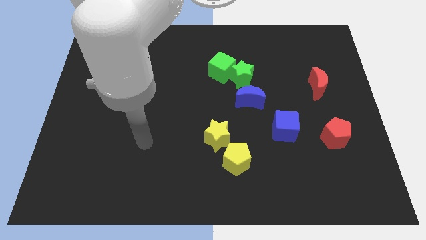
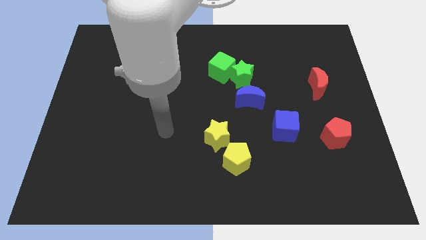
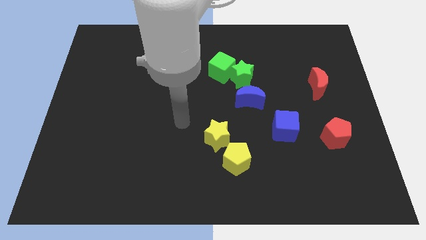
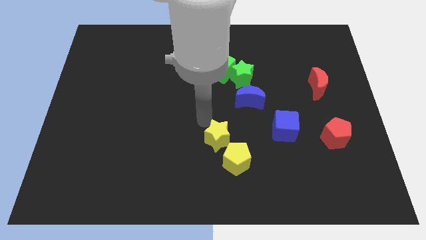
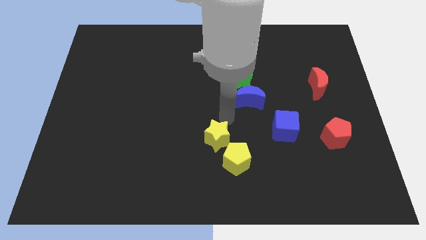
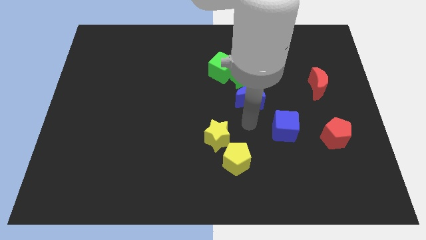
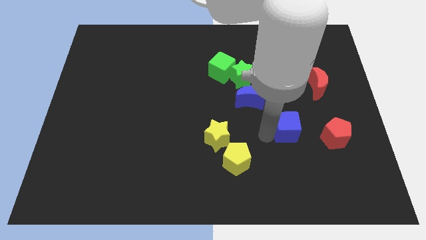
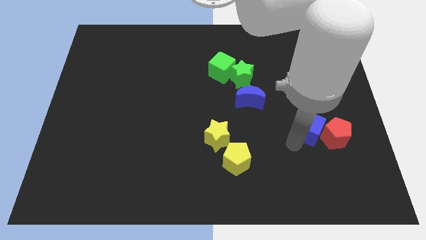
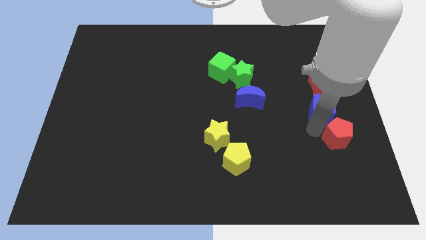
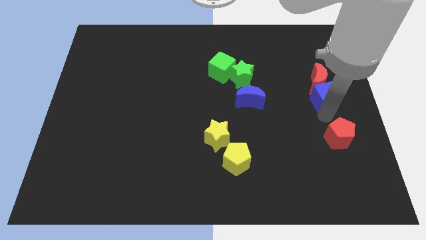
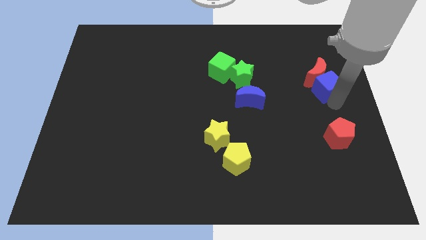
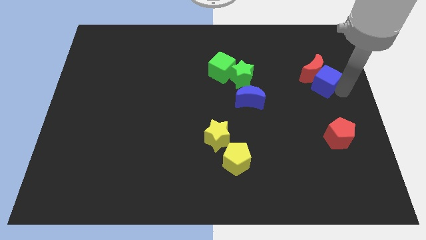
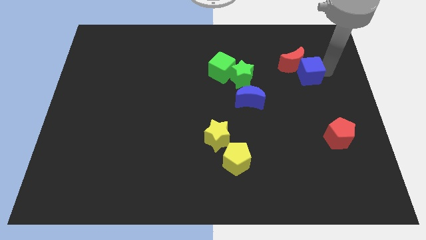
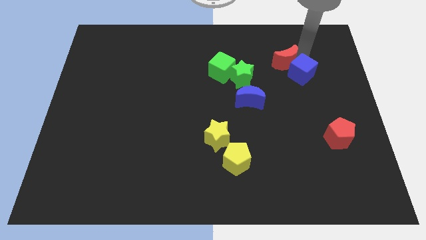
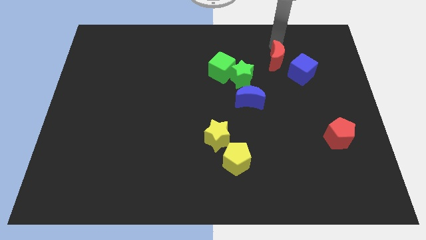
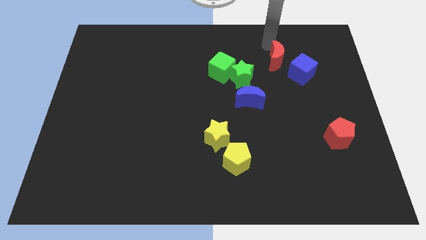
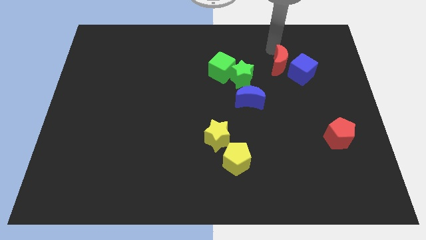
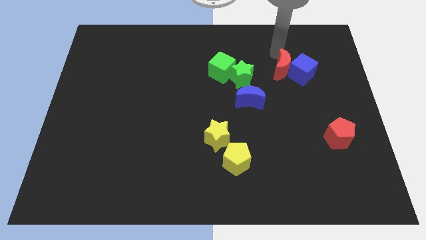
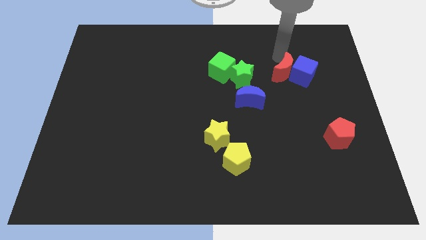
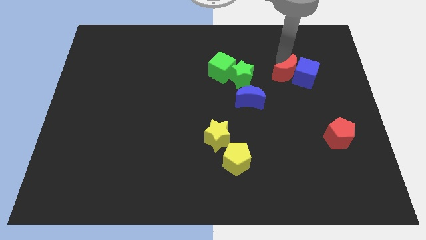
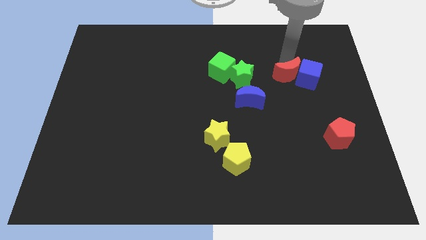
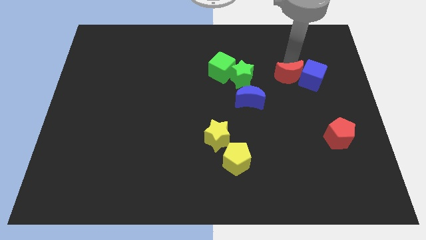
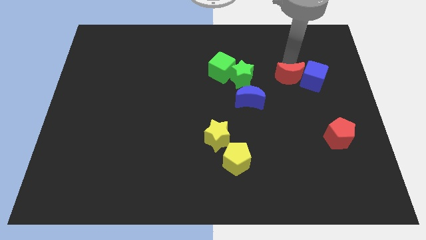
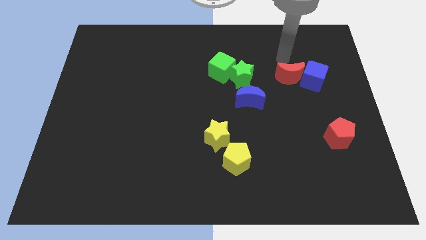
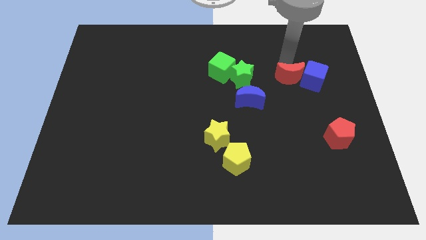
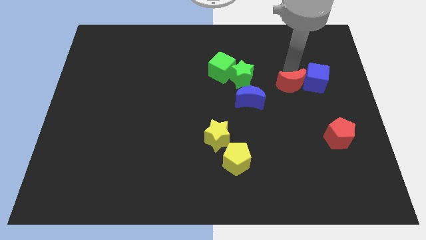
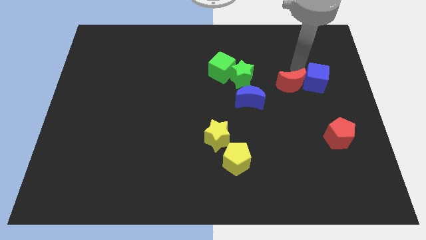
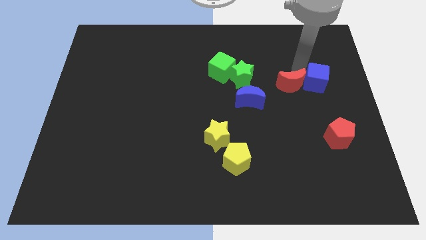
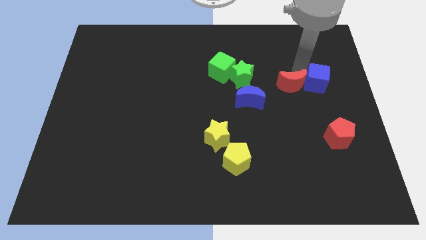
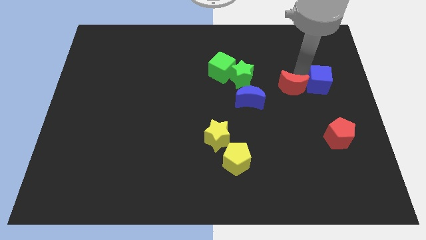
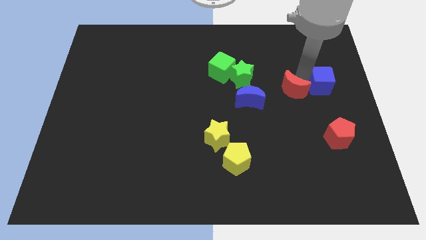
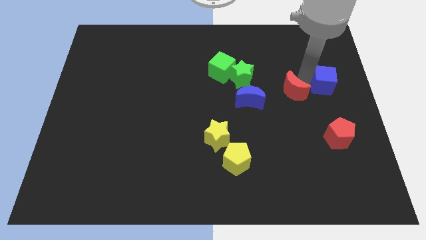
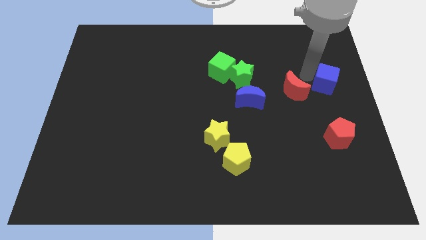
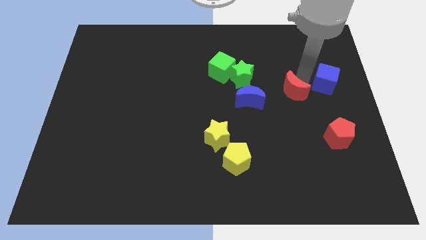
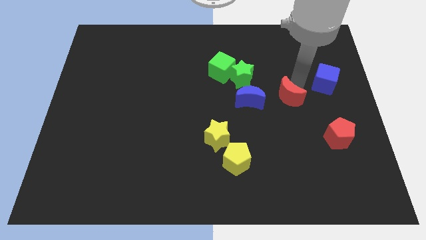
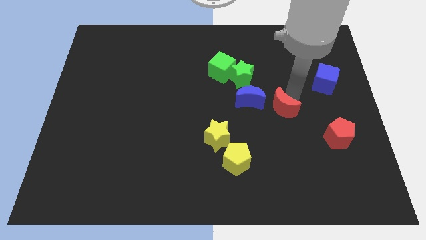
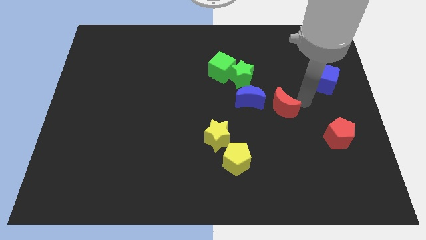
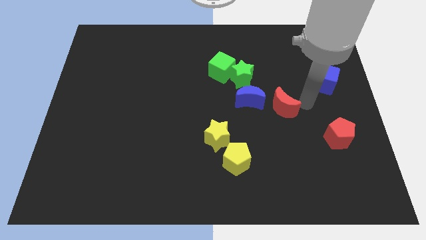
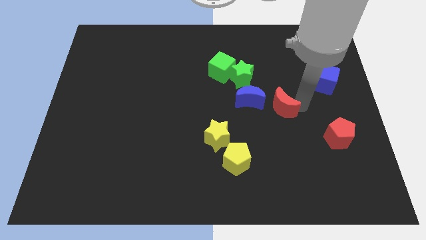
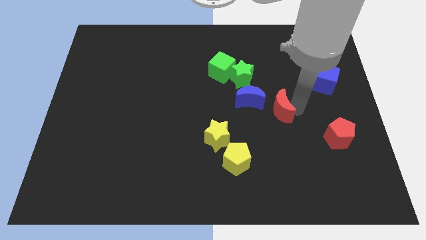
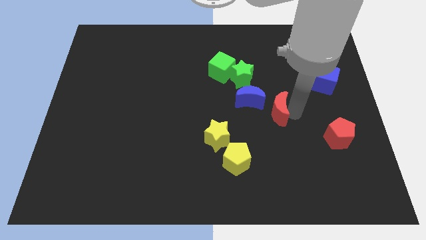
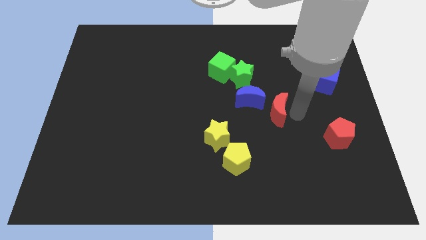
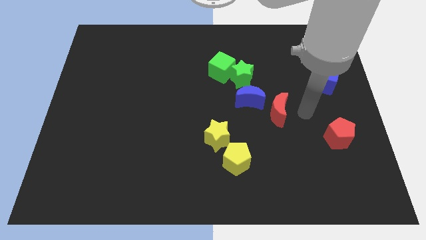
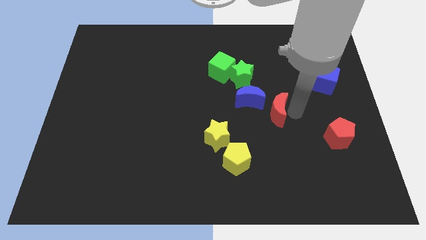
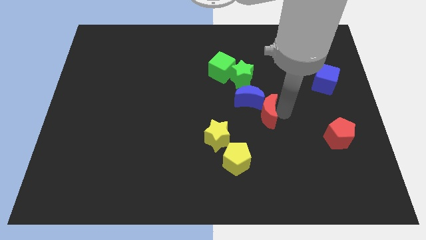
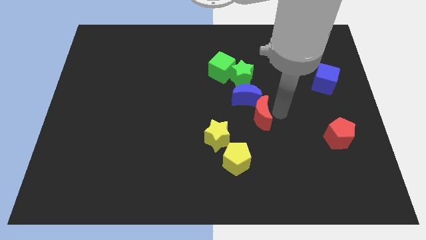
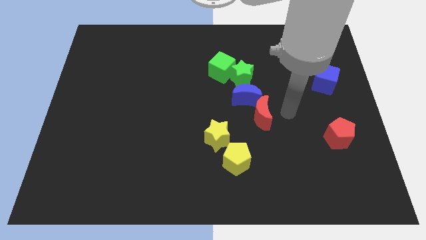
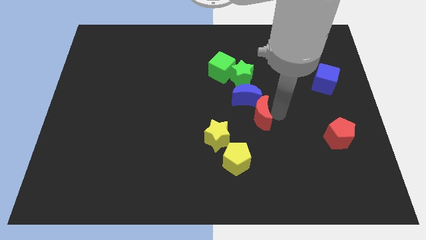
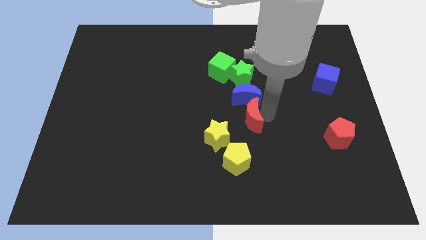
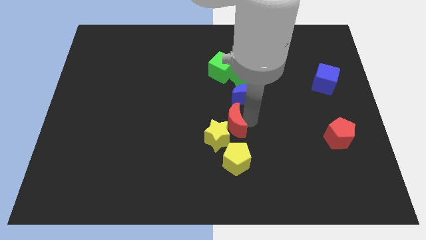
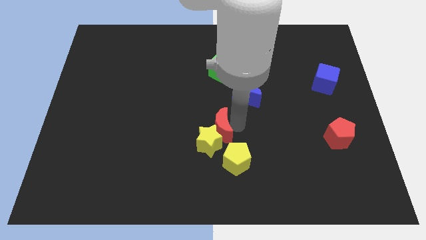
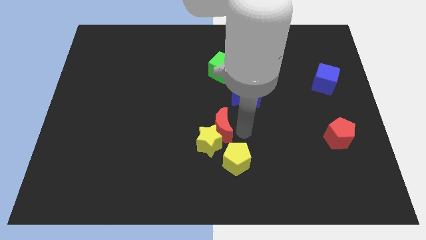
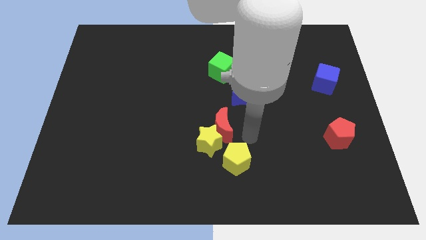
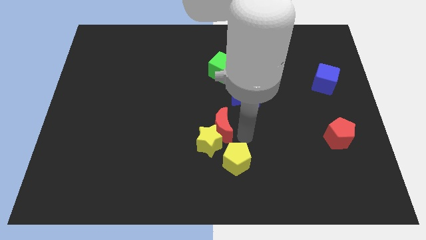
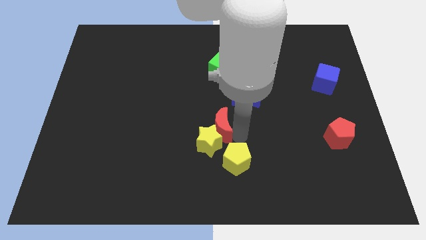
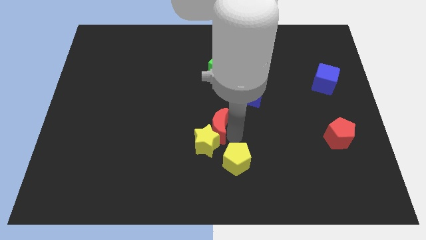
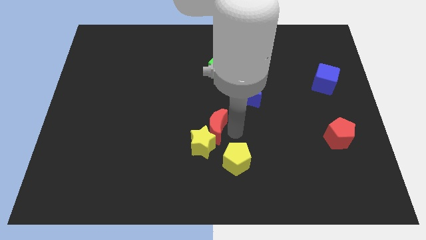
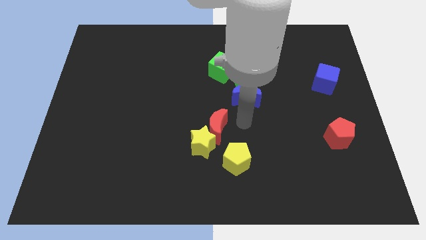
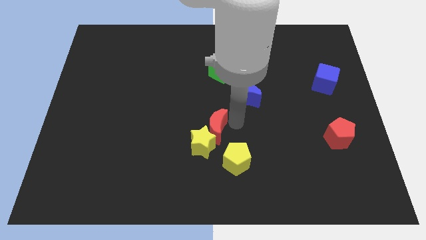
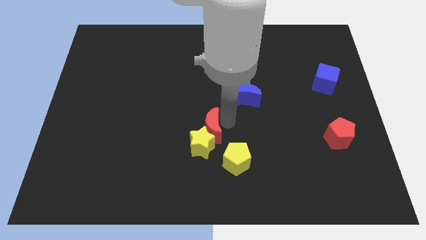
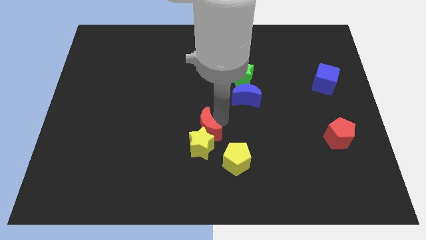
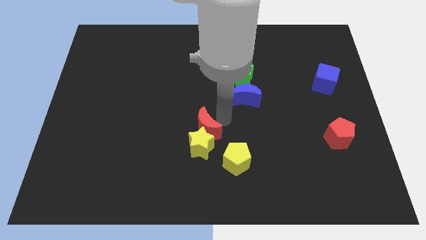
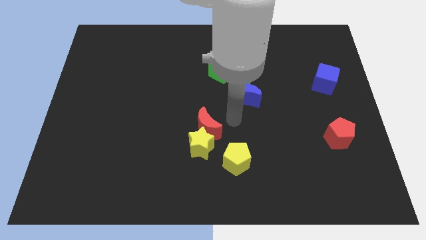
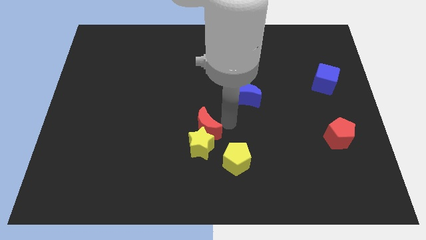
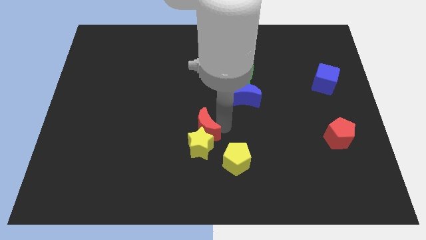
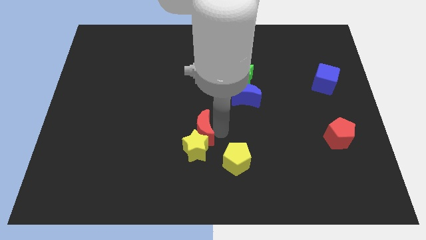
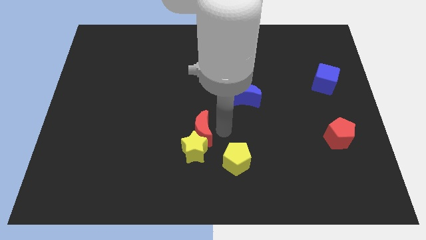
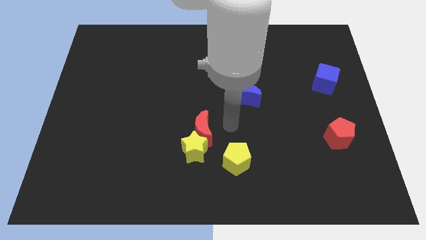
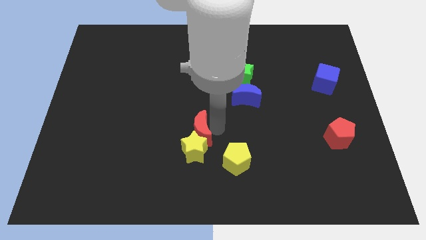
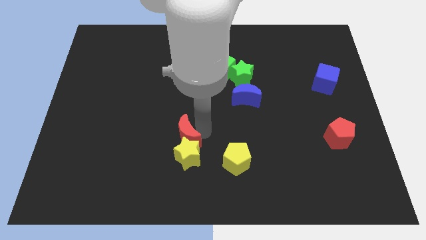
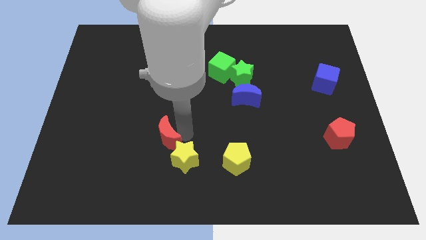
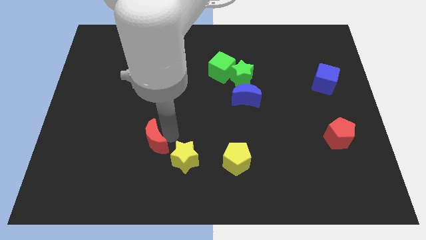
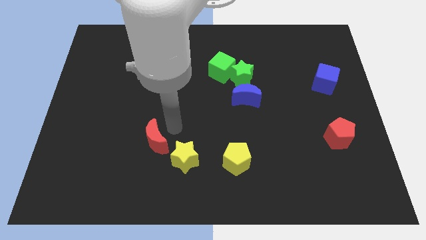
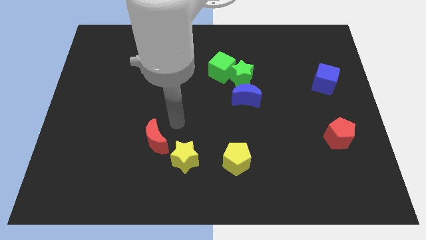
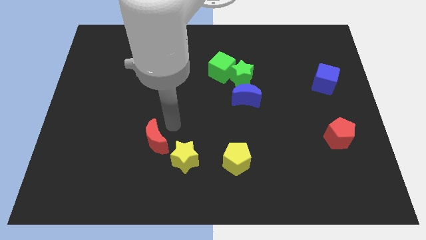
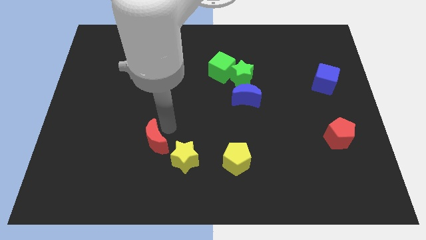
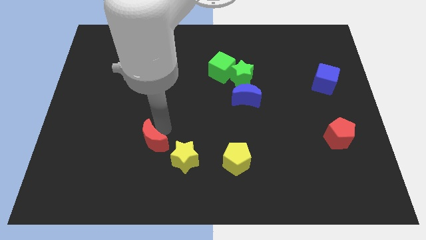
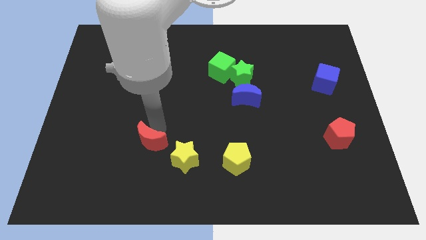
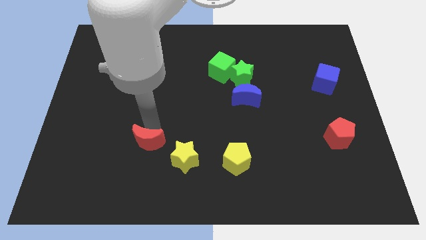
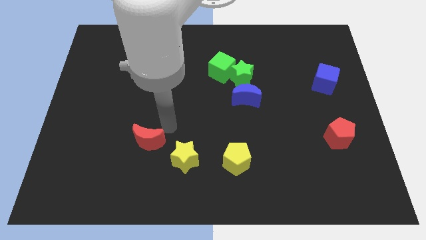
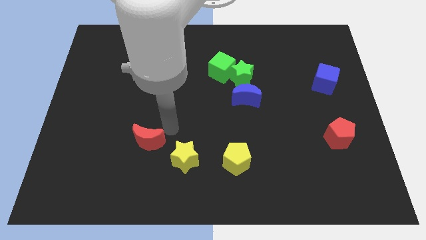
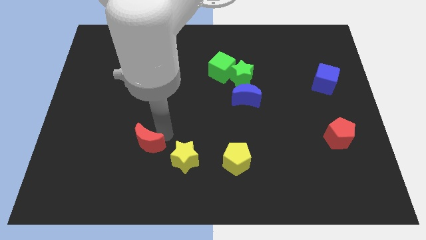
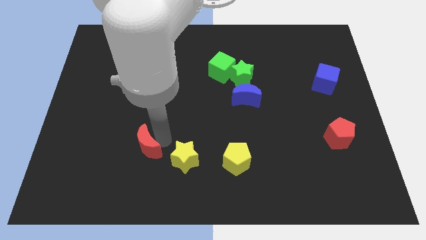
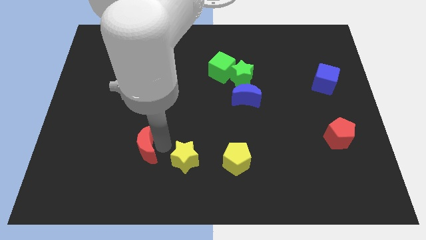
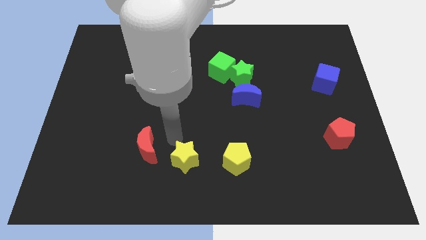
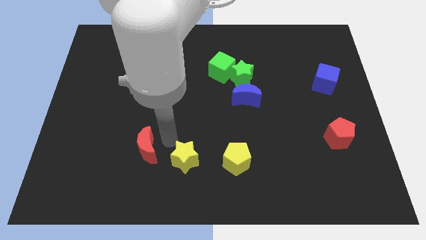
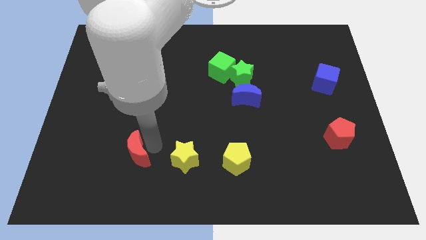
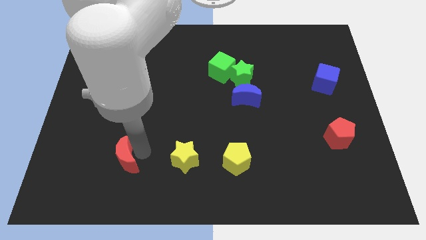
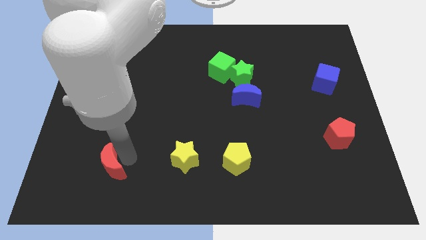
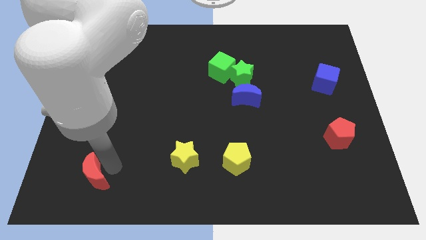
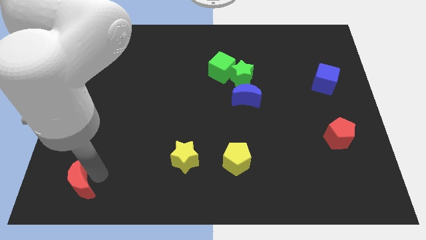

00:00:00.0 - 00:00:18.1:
push the red moon to the bottom left
